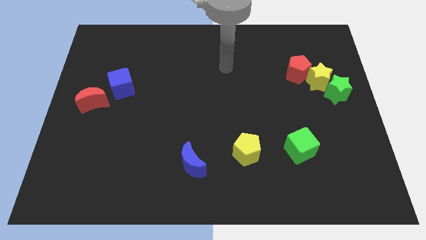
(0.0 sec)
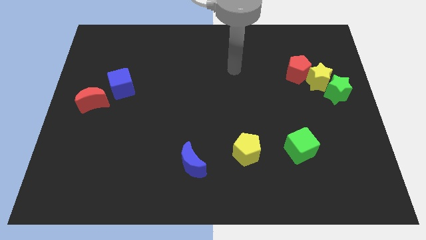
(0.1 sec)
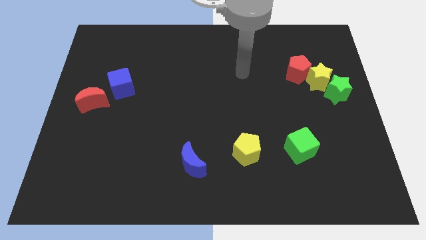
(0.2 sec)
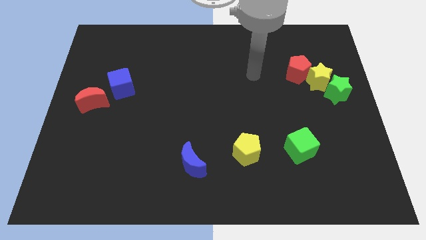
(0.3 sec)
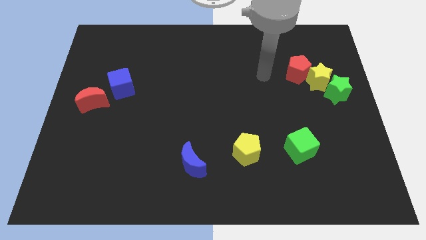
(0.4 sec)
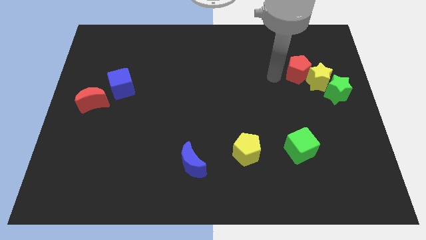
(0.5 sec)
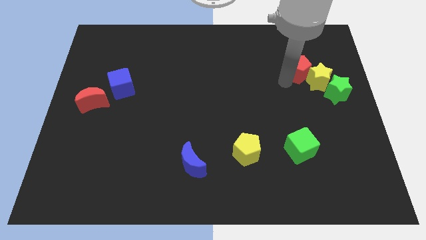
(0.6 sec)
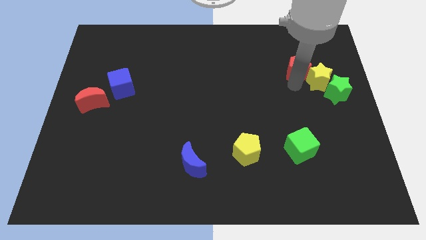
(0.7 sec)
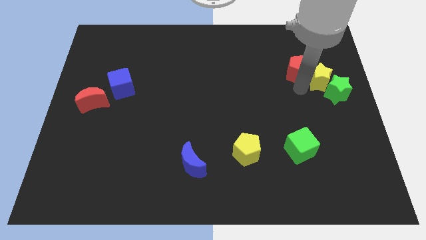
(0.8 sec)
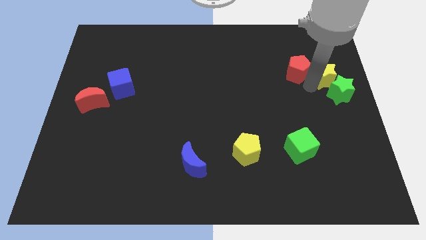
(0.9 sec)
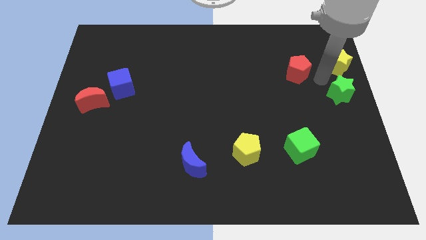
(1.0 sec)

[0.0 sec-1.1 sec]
pull the red pentagon apart from the yellow star

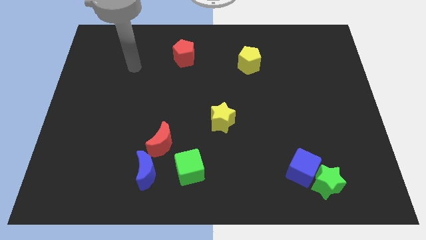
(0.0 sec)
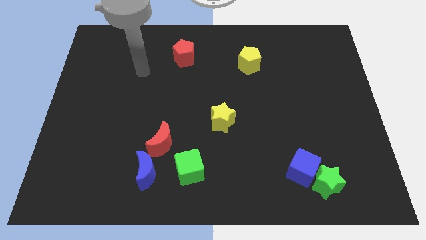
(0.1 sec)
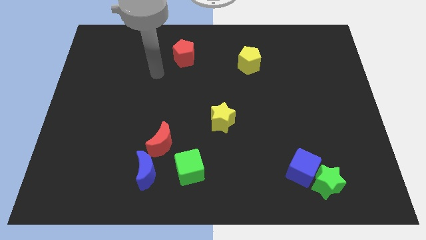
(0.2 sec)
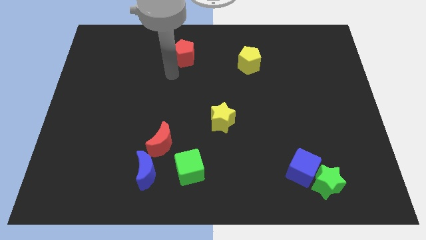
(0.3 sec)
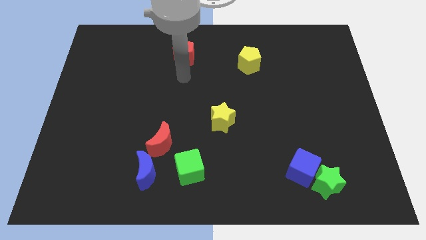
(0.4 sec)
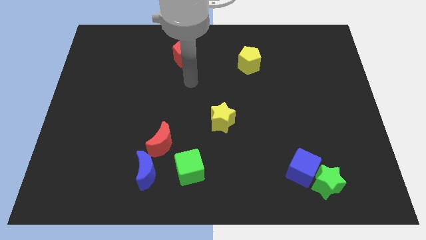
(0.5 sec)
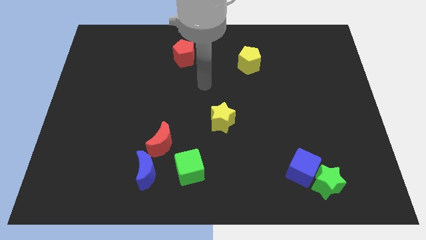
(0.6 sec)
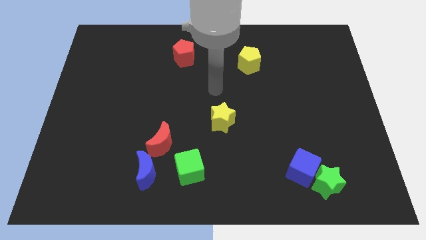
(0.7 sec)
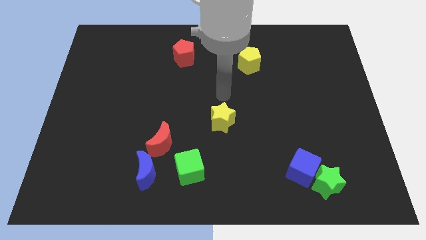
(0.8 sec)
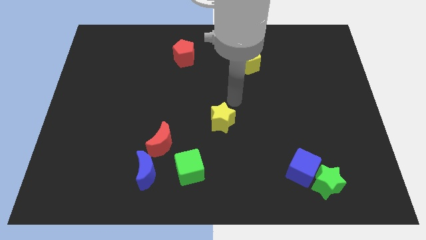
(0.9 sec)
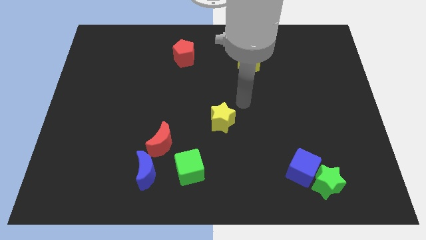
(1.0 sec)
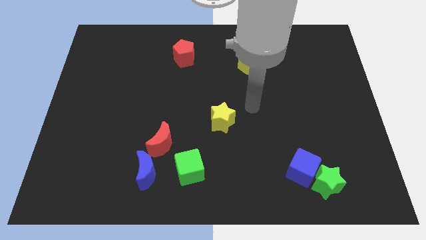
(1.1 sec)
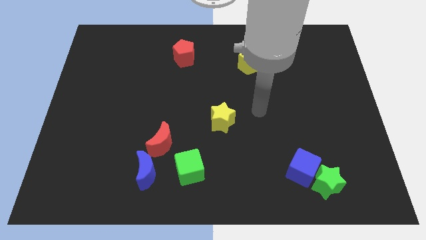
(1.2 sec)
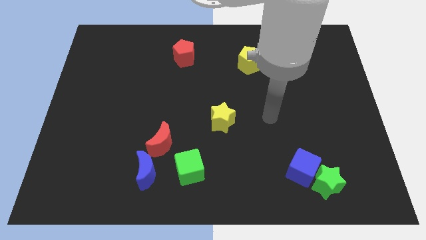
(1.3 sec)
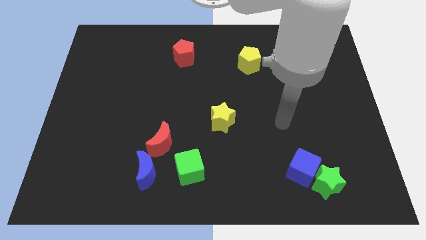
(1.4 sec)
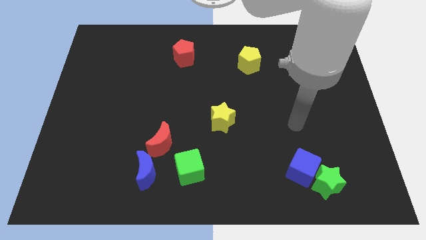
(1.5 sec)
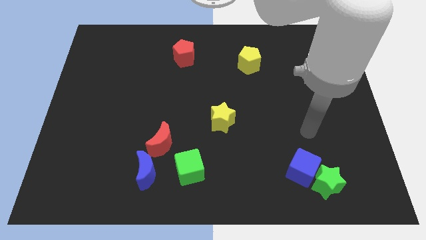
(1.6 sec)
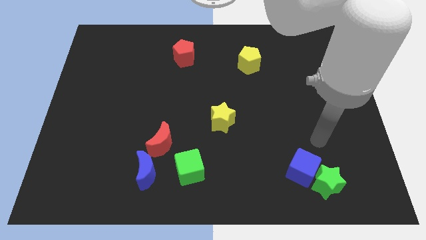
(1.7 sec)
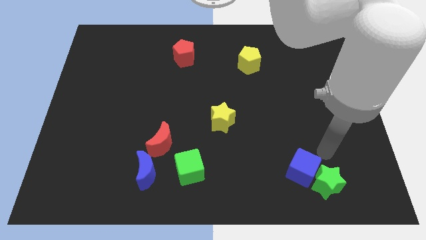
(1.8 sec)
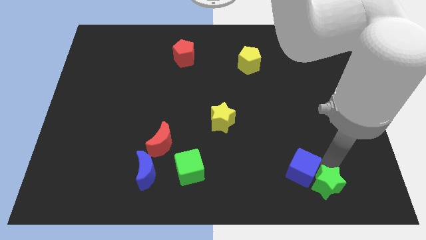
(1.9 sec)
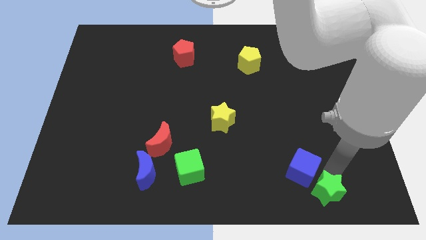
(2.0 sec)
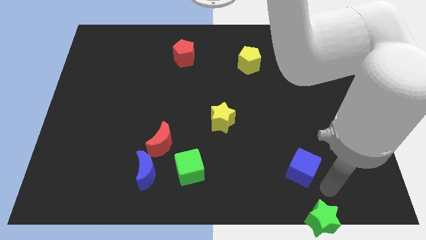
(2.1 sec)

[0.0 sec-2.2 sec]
separate the blue cube from the green star

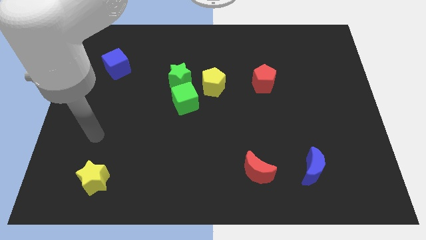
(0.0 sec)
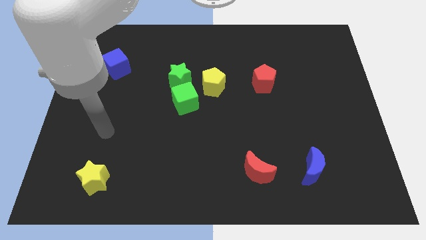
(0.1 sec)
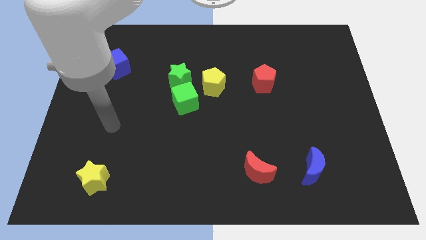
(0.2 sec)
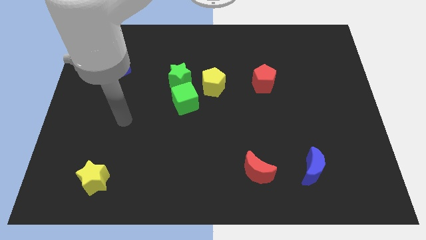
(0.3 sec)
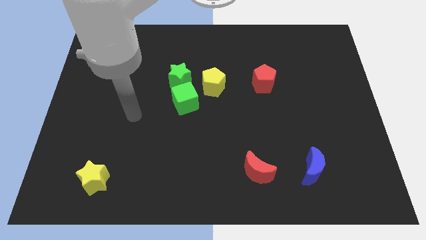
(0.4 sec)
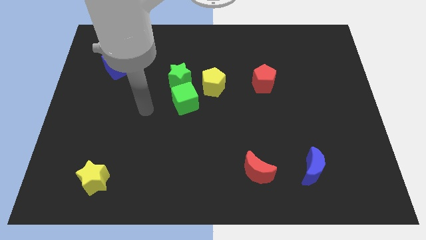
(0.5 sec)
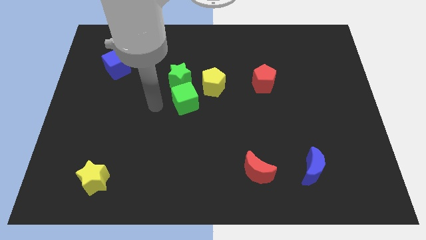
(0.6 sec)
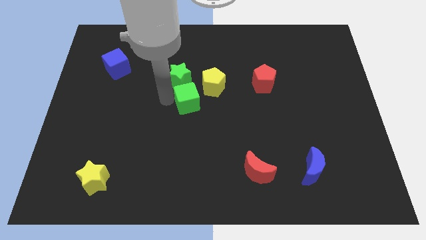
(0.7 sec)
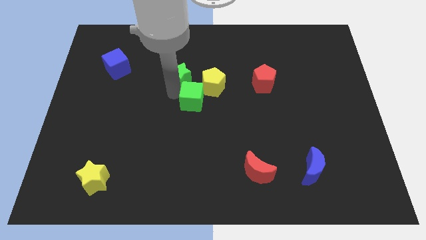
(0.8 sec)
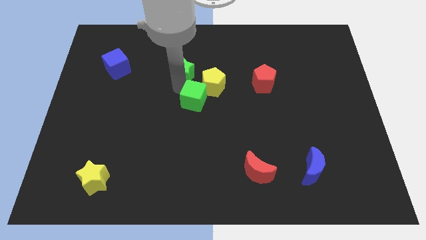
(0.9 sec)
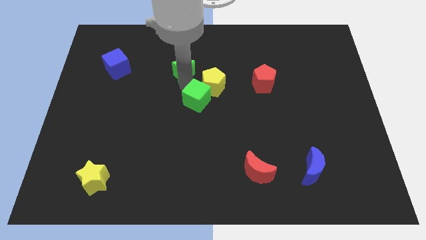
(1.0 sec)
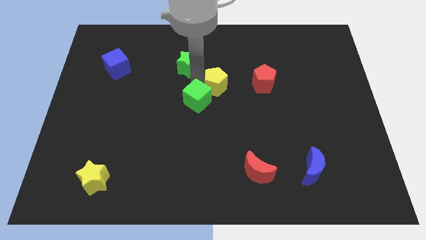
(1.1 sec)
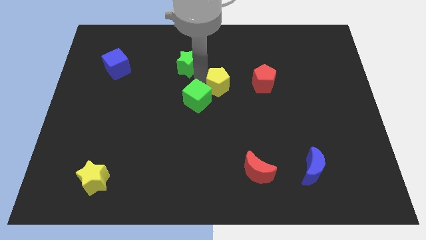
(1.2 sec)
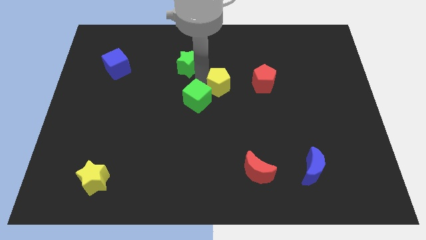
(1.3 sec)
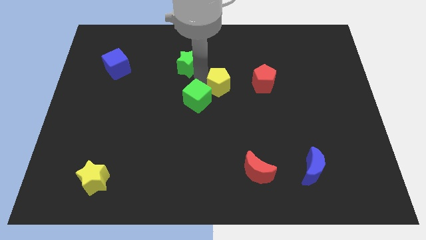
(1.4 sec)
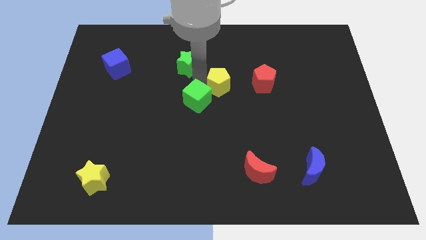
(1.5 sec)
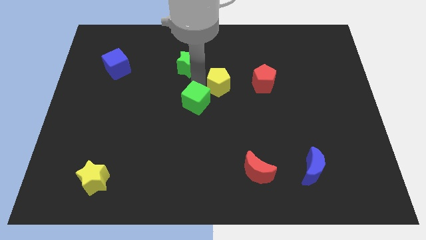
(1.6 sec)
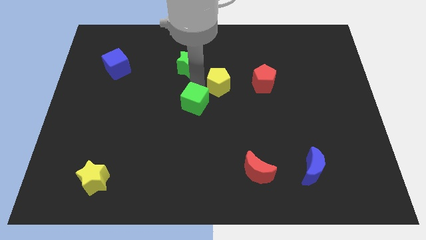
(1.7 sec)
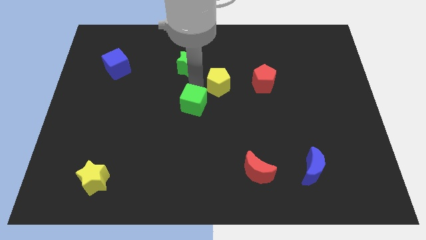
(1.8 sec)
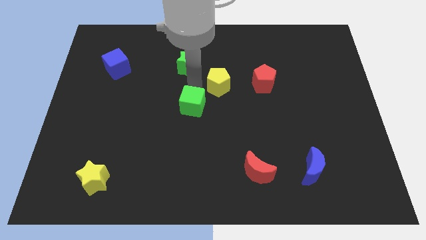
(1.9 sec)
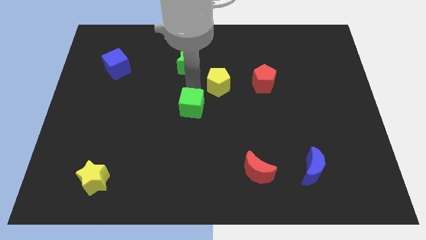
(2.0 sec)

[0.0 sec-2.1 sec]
move the green cube away from the green star and yellow pentagon

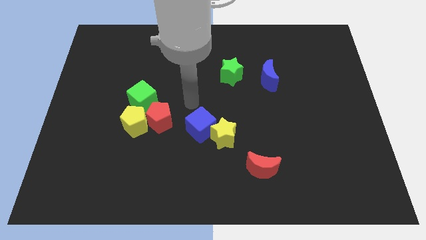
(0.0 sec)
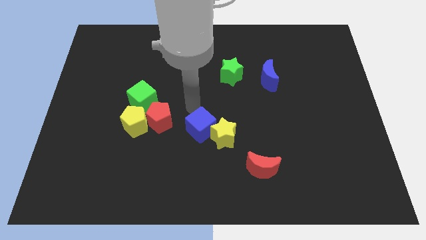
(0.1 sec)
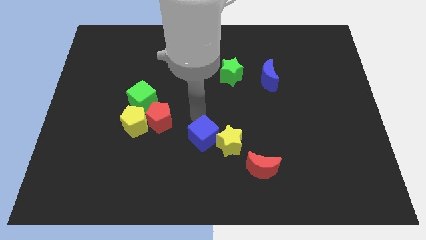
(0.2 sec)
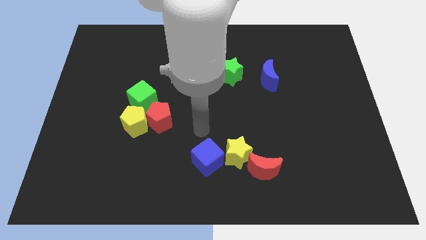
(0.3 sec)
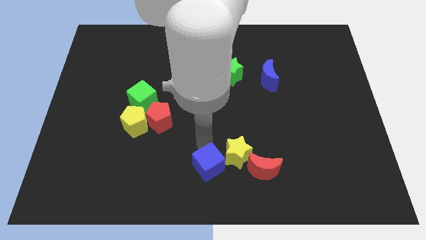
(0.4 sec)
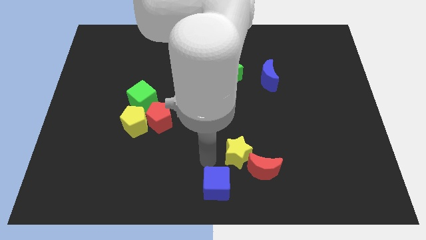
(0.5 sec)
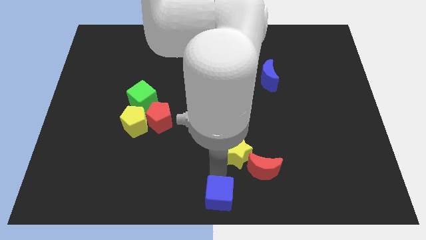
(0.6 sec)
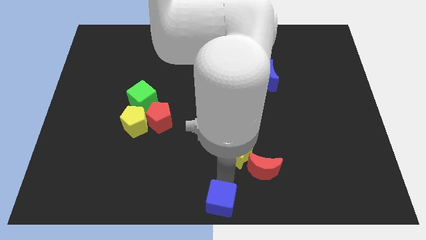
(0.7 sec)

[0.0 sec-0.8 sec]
separate the yellow star from the blue cube

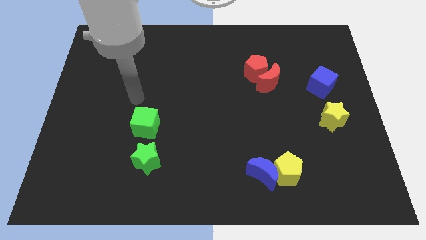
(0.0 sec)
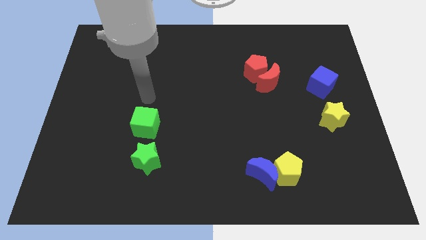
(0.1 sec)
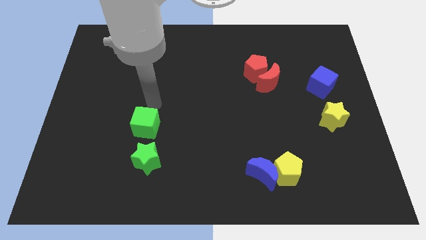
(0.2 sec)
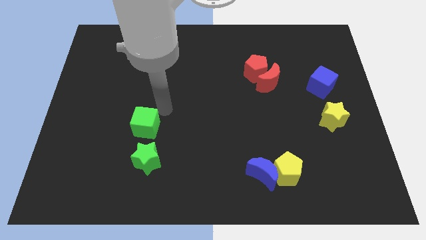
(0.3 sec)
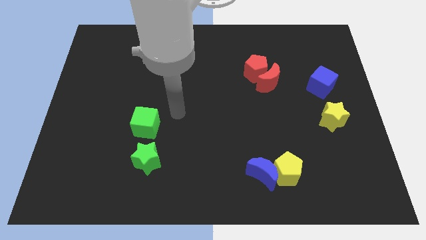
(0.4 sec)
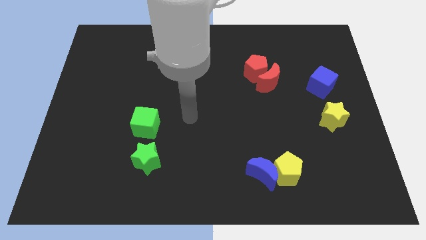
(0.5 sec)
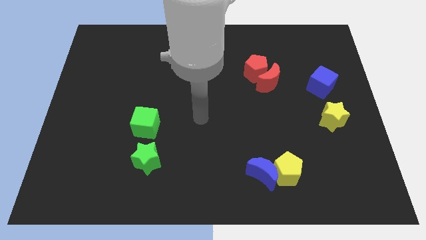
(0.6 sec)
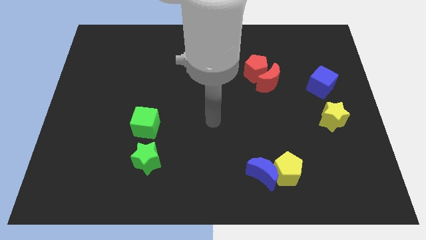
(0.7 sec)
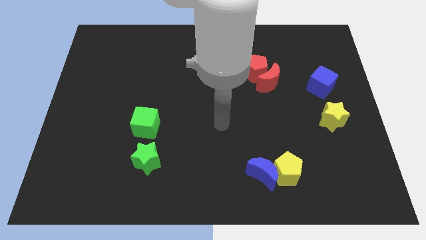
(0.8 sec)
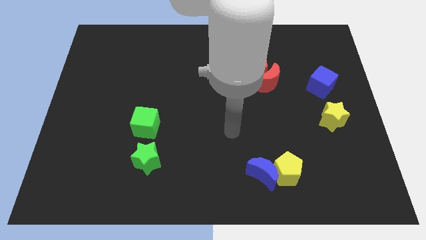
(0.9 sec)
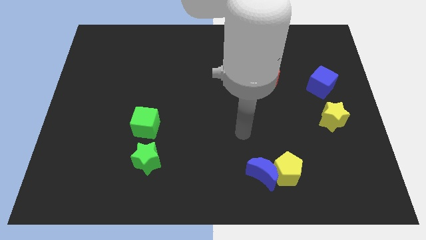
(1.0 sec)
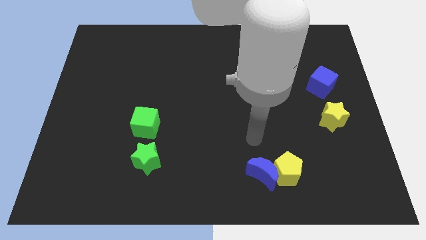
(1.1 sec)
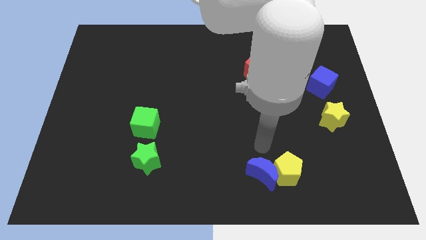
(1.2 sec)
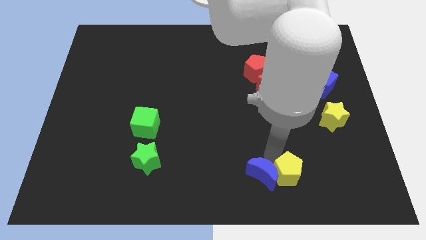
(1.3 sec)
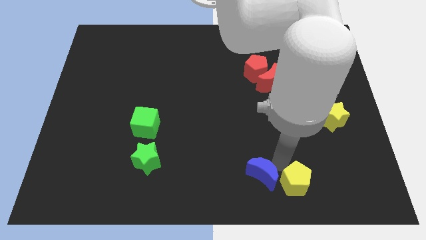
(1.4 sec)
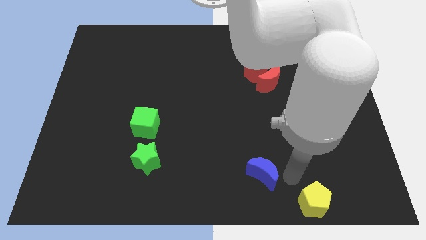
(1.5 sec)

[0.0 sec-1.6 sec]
separate the blue moon from the yellow pentagon

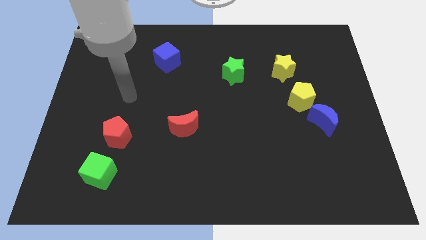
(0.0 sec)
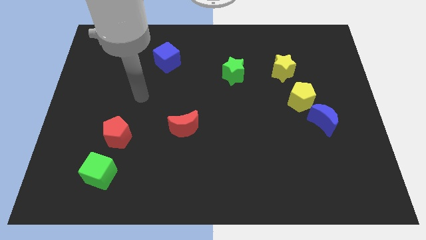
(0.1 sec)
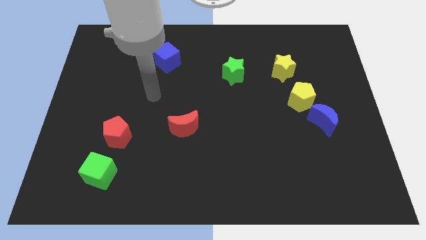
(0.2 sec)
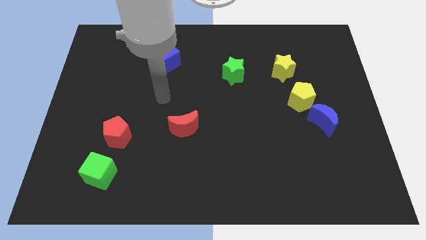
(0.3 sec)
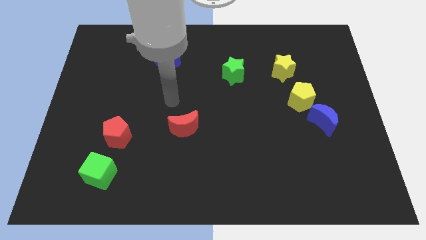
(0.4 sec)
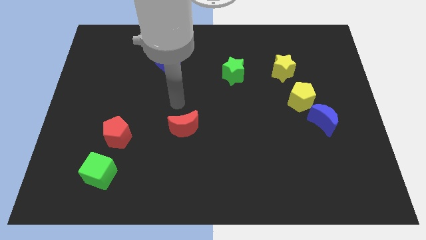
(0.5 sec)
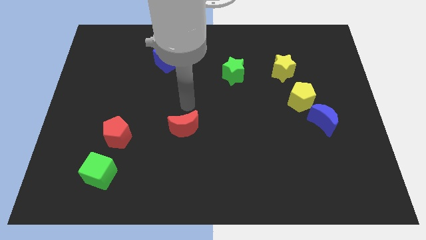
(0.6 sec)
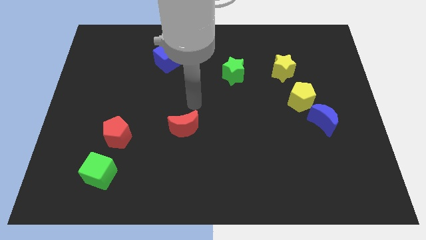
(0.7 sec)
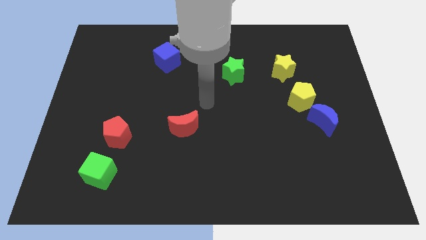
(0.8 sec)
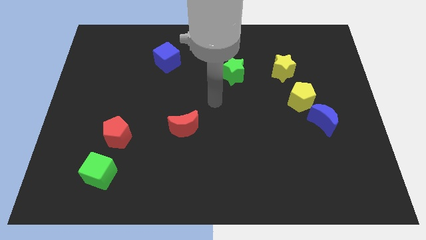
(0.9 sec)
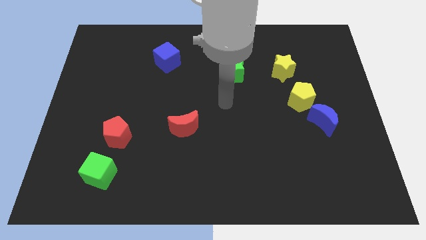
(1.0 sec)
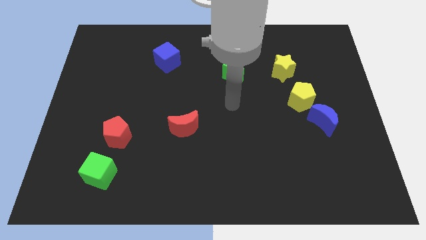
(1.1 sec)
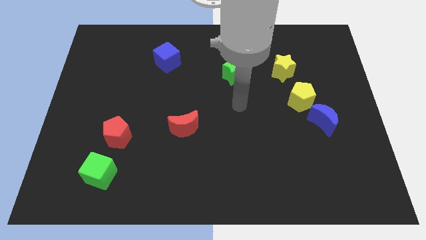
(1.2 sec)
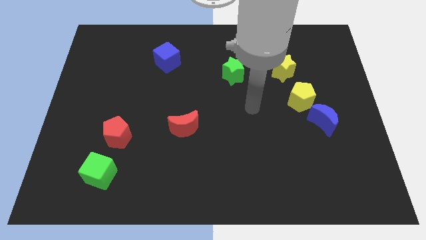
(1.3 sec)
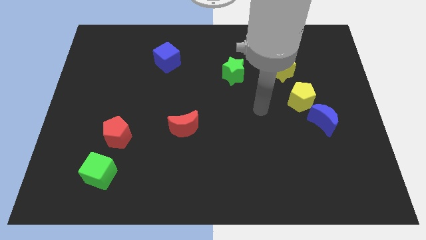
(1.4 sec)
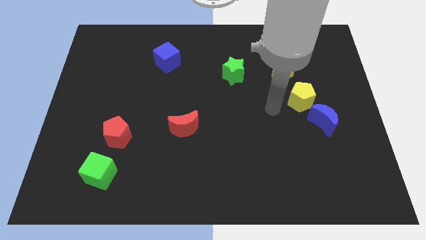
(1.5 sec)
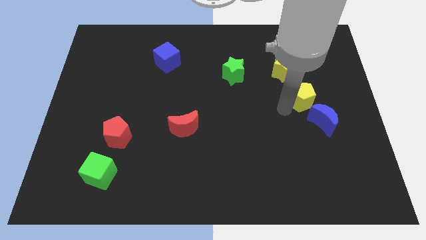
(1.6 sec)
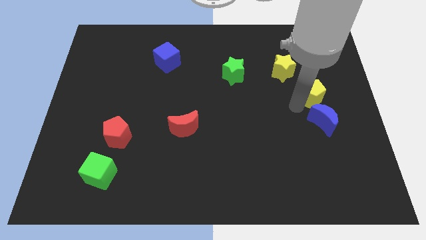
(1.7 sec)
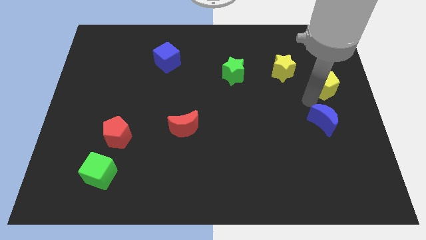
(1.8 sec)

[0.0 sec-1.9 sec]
move the blue moon away from the yellow pentagon
